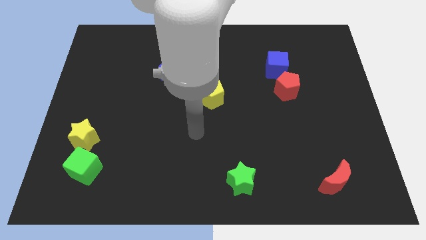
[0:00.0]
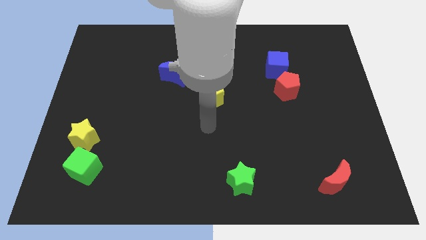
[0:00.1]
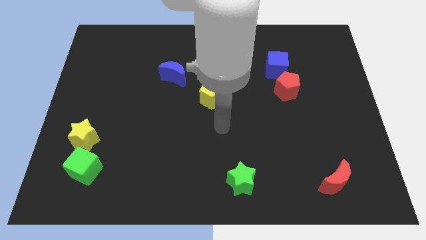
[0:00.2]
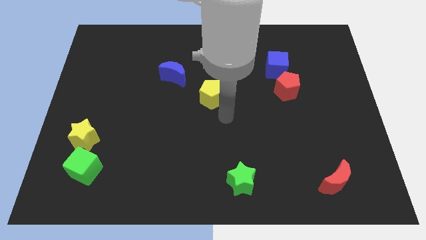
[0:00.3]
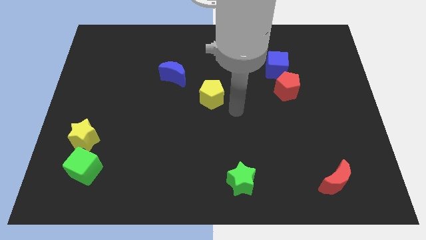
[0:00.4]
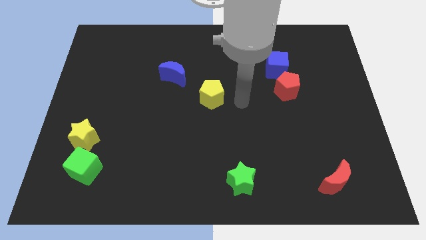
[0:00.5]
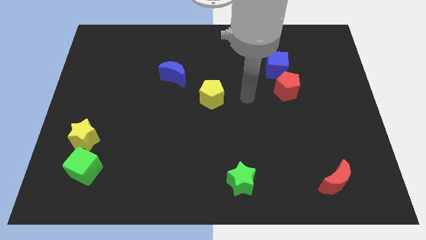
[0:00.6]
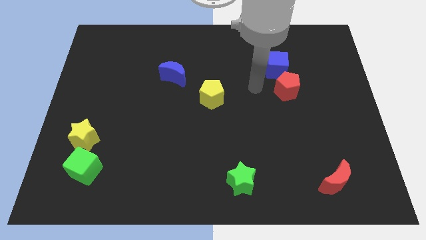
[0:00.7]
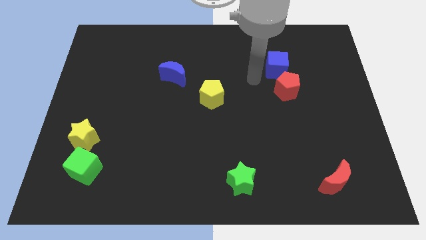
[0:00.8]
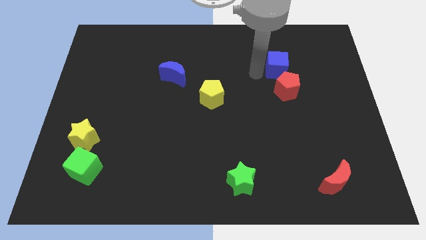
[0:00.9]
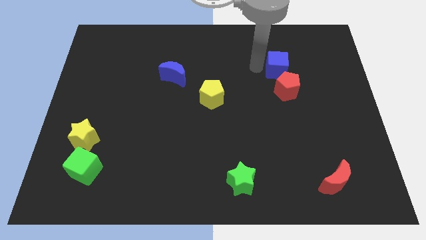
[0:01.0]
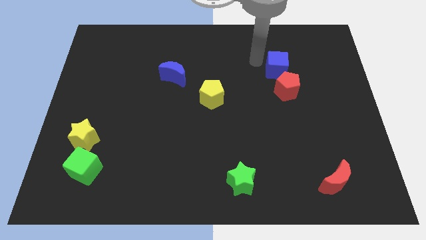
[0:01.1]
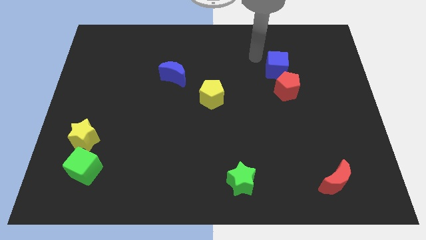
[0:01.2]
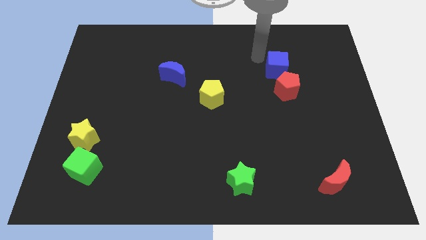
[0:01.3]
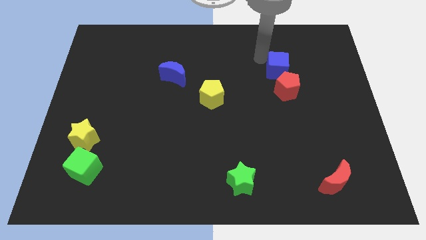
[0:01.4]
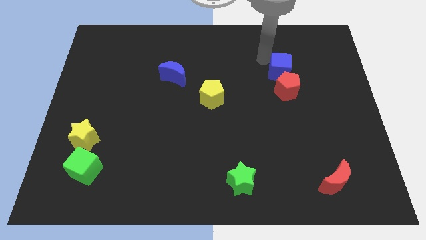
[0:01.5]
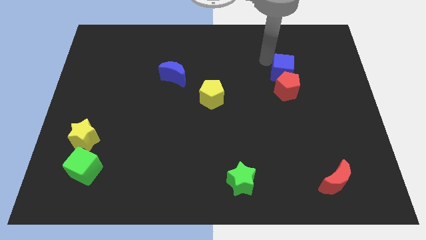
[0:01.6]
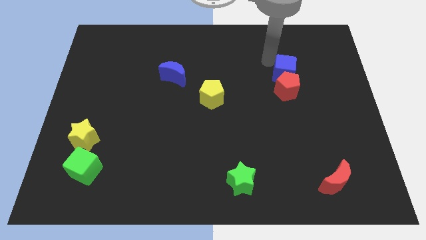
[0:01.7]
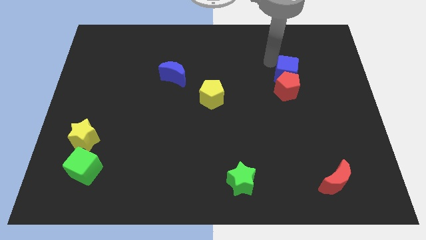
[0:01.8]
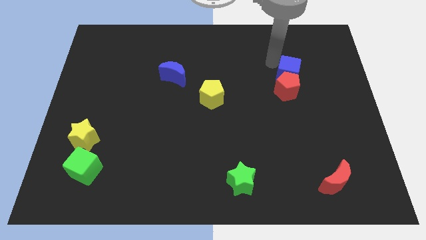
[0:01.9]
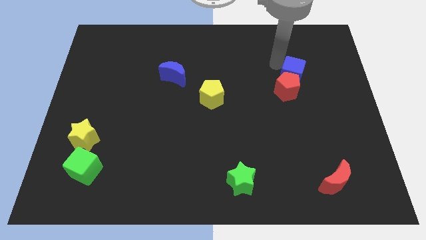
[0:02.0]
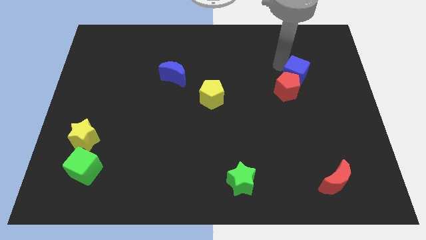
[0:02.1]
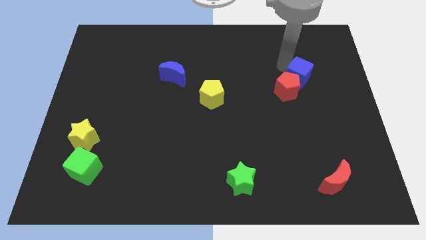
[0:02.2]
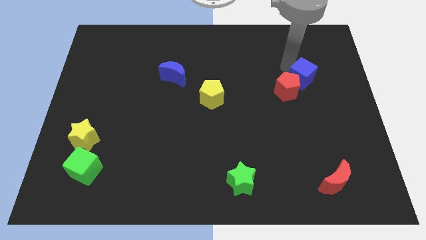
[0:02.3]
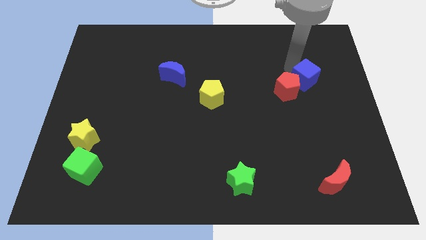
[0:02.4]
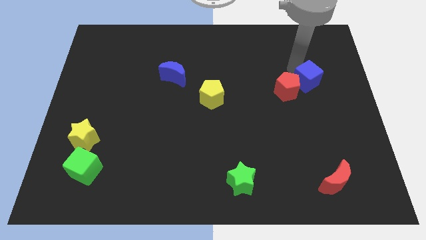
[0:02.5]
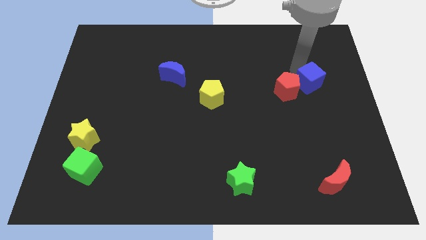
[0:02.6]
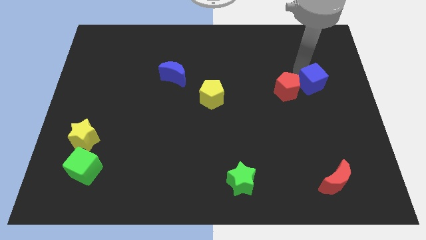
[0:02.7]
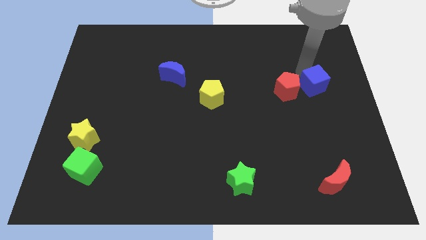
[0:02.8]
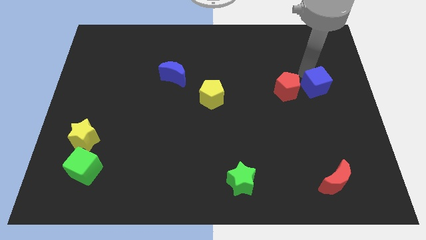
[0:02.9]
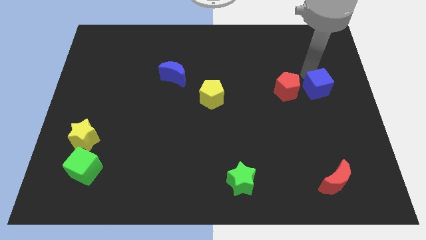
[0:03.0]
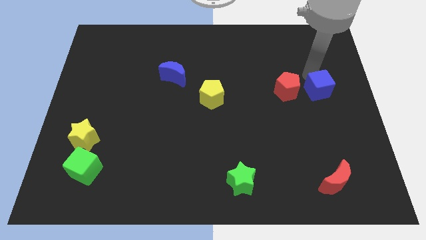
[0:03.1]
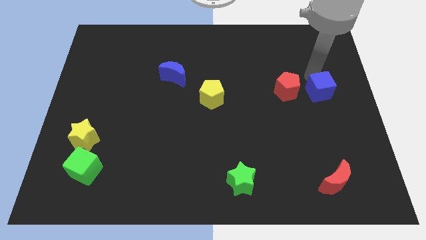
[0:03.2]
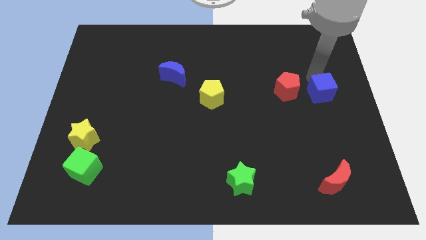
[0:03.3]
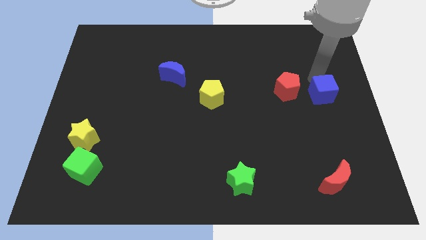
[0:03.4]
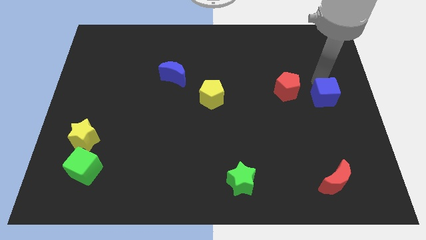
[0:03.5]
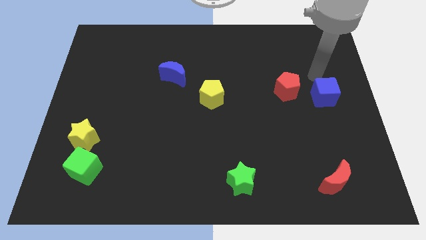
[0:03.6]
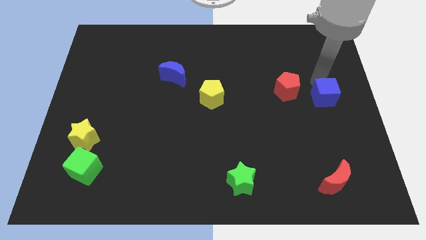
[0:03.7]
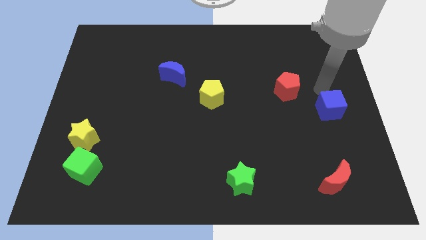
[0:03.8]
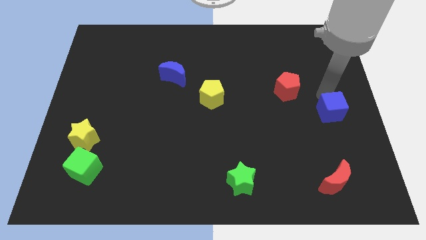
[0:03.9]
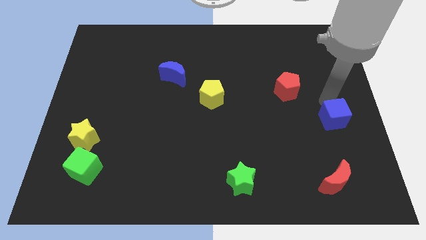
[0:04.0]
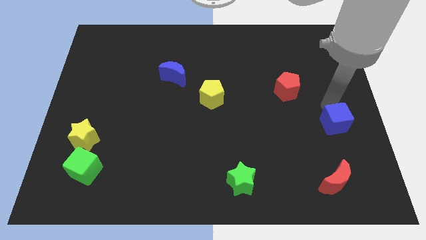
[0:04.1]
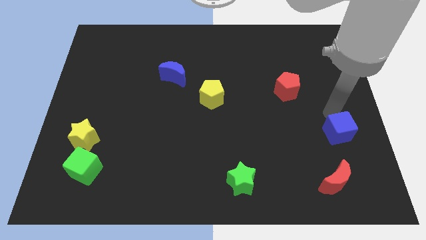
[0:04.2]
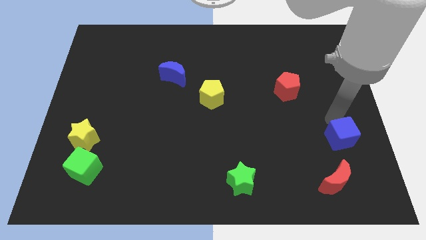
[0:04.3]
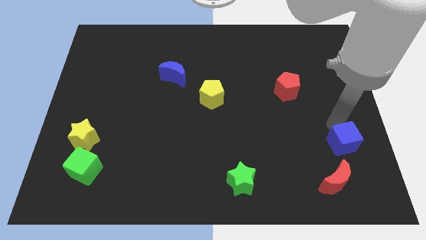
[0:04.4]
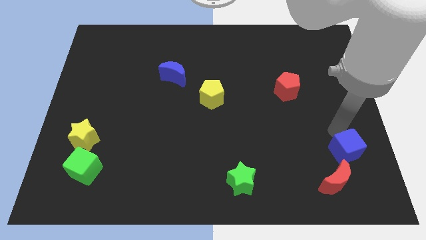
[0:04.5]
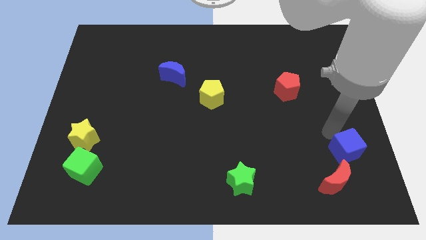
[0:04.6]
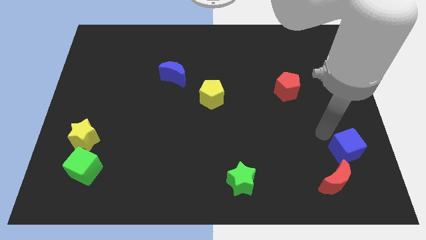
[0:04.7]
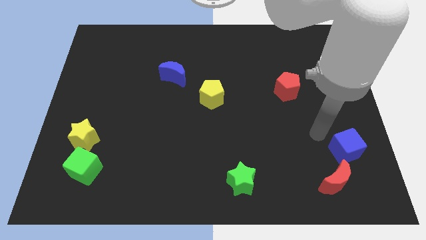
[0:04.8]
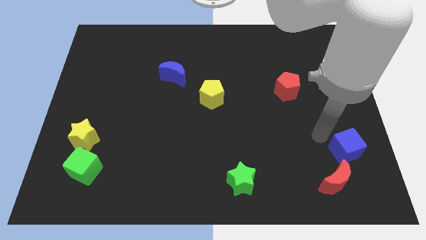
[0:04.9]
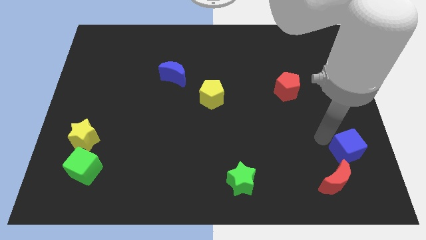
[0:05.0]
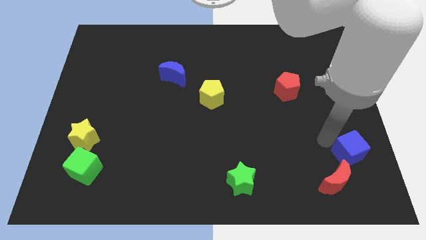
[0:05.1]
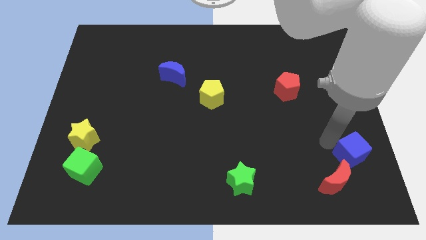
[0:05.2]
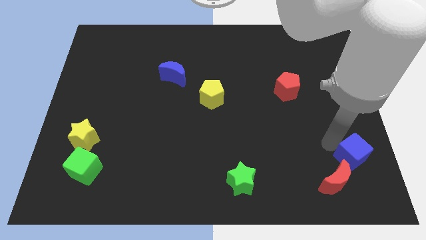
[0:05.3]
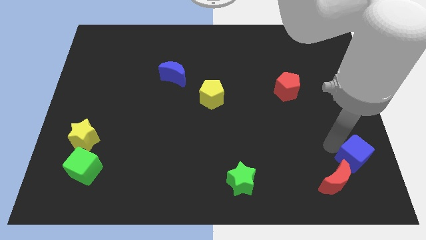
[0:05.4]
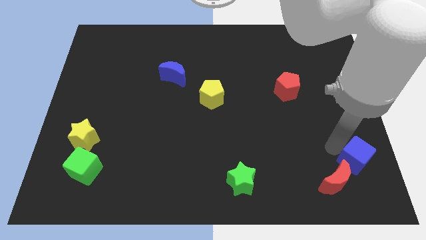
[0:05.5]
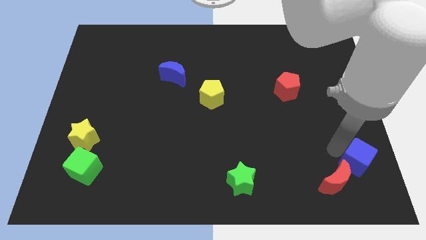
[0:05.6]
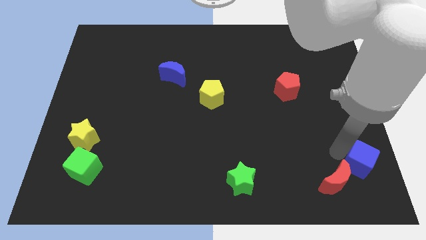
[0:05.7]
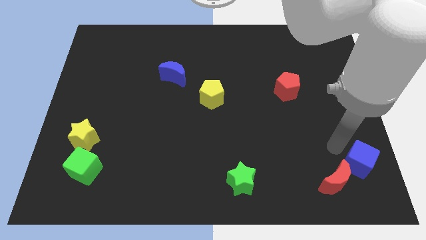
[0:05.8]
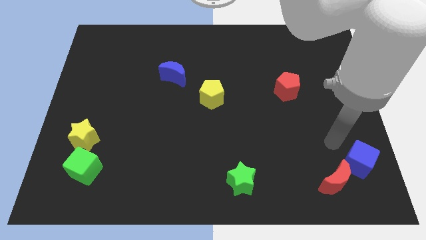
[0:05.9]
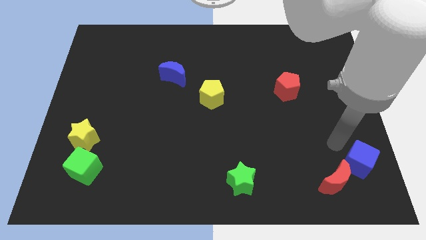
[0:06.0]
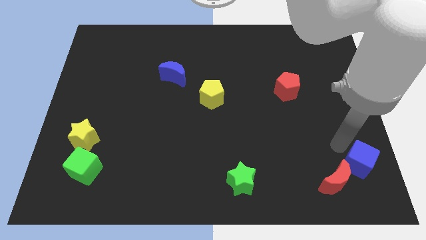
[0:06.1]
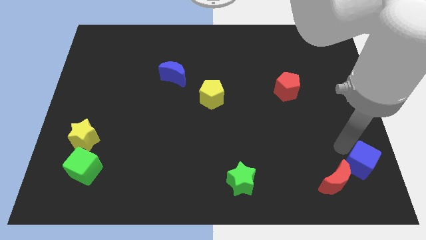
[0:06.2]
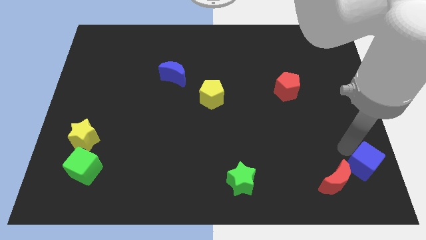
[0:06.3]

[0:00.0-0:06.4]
put the blue cube to the bottom right
